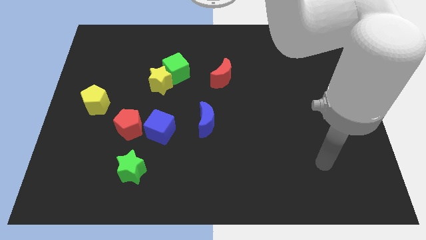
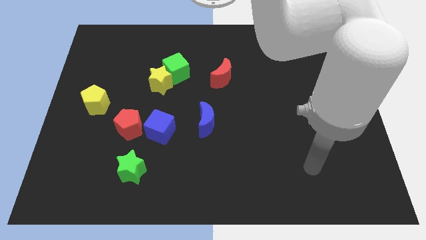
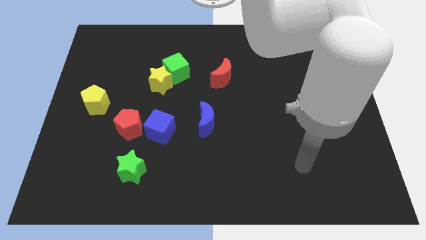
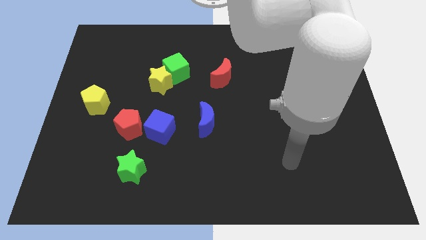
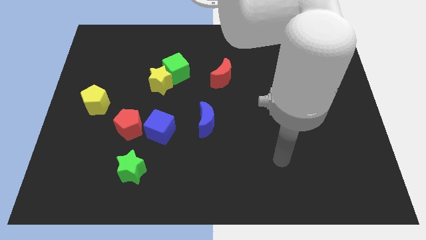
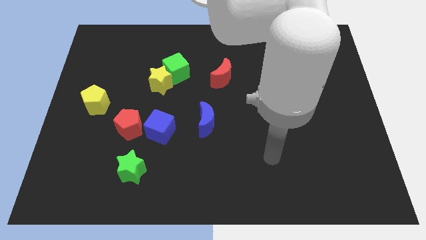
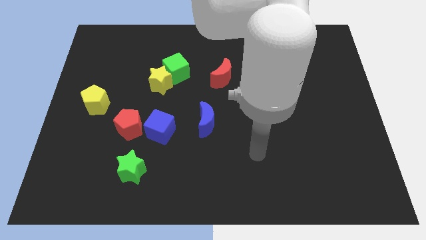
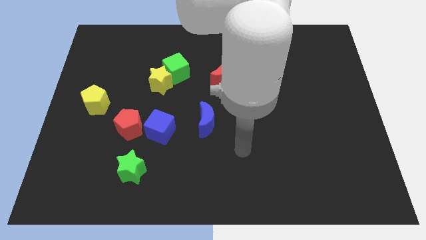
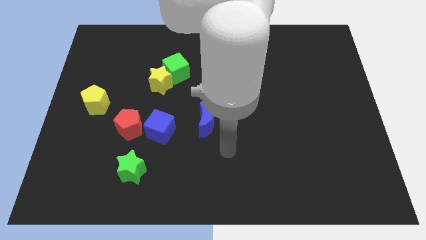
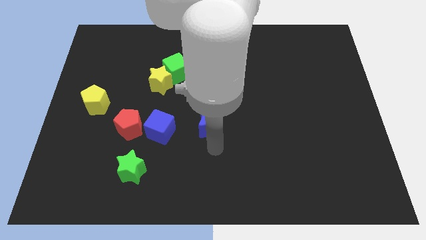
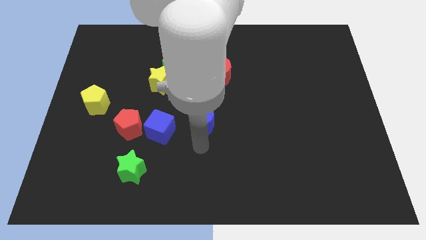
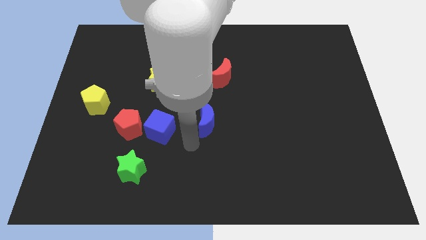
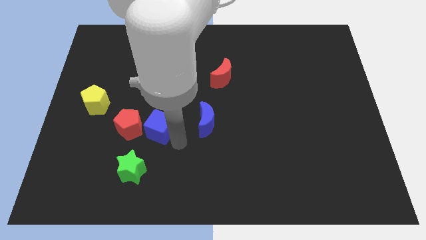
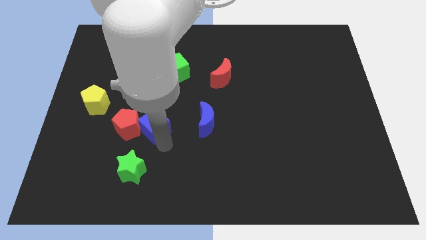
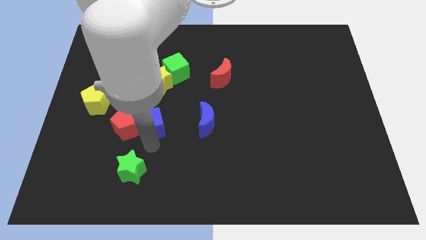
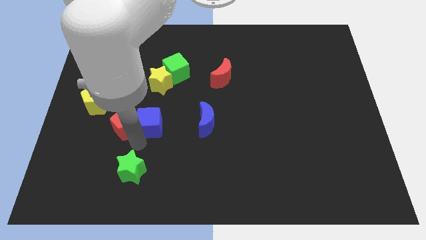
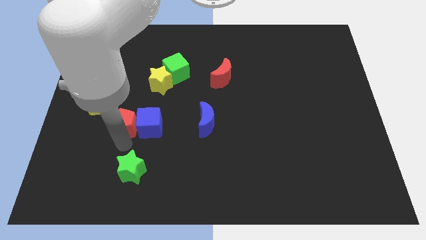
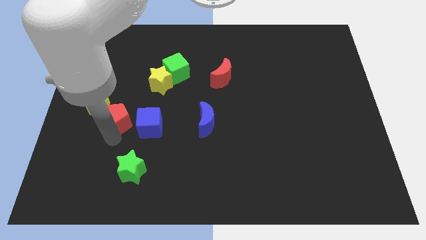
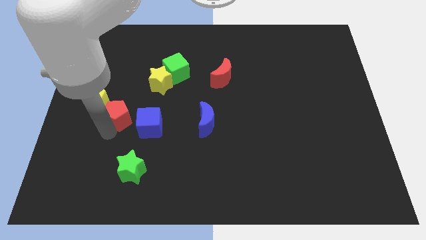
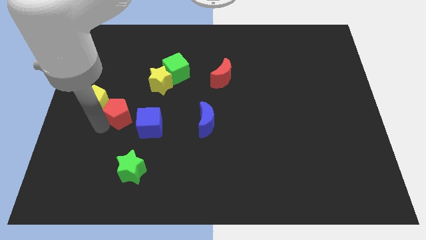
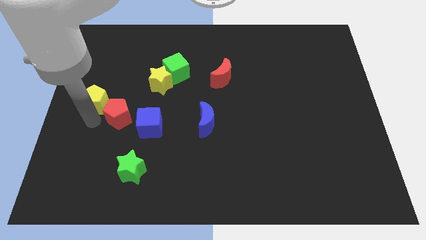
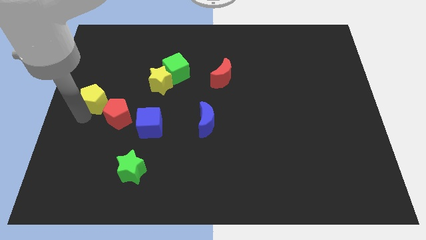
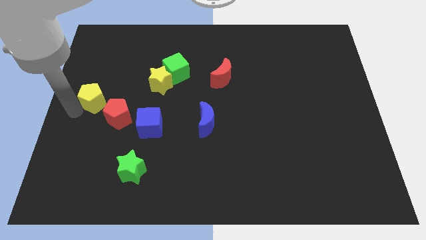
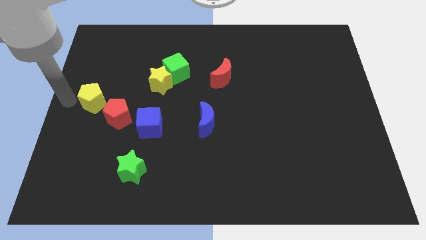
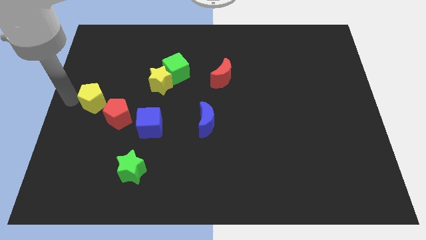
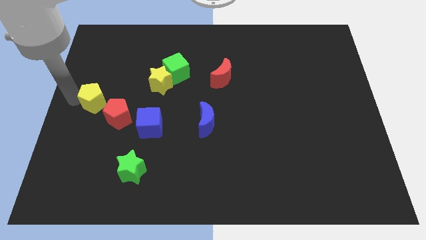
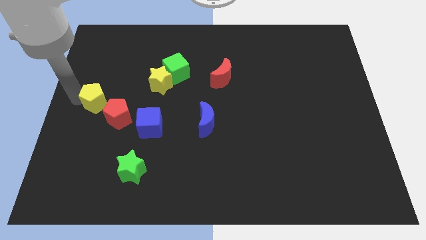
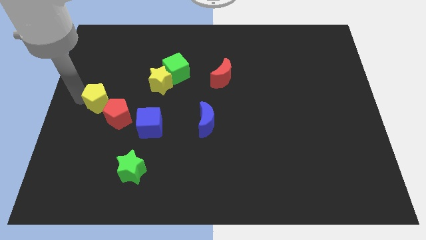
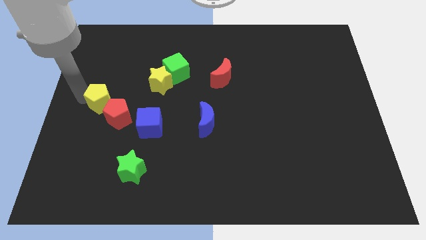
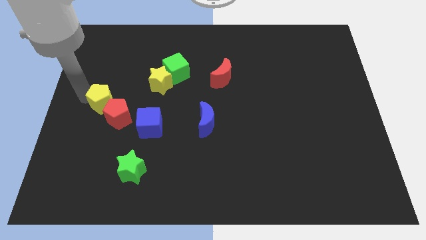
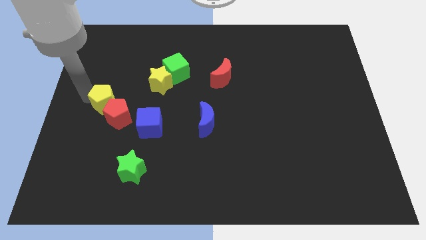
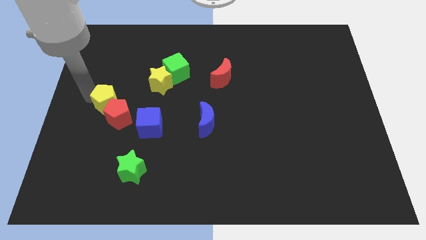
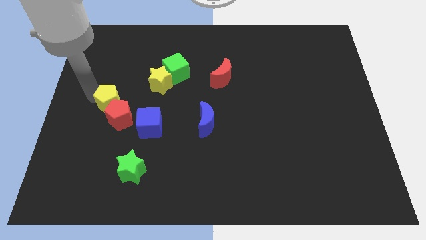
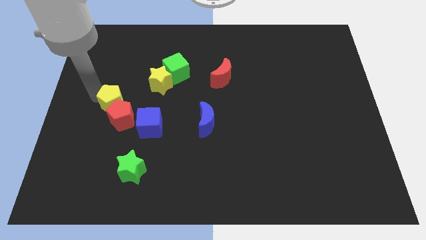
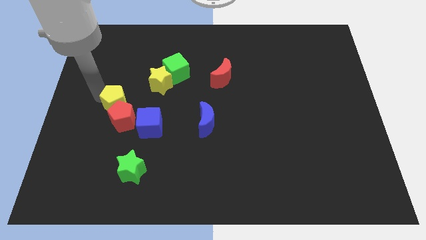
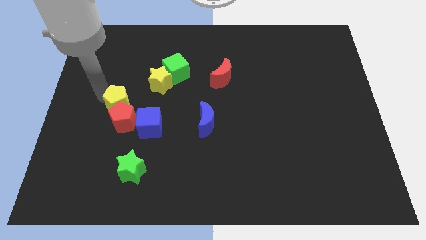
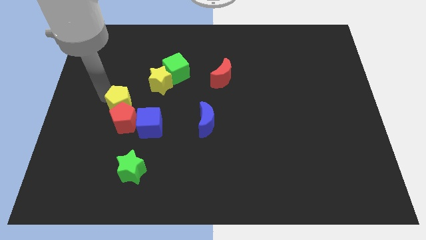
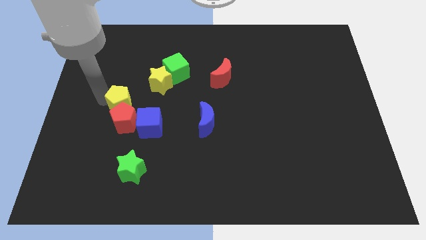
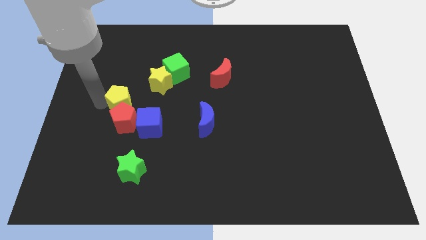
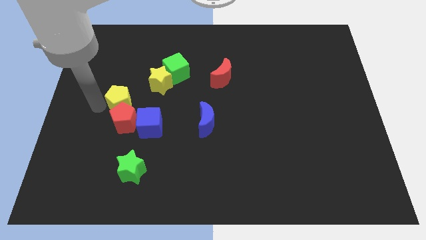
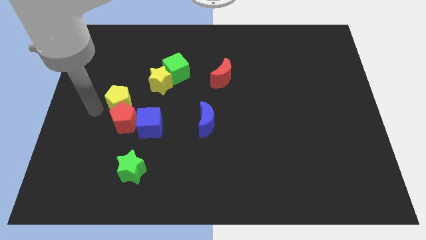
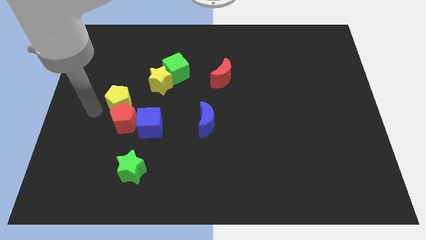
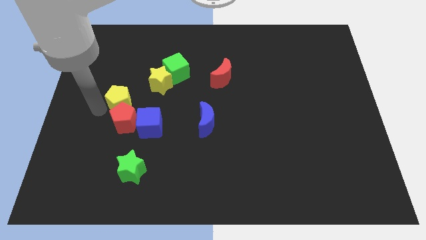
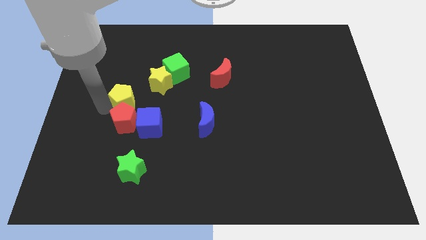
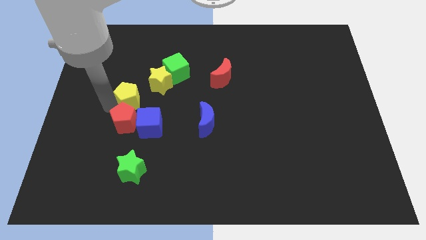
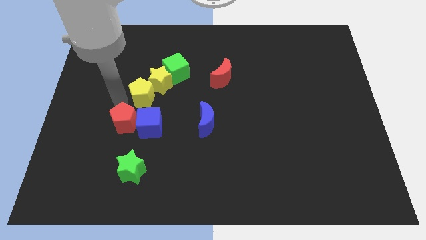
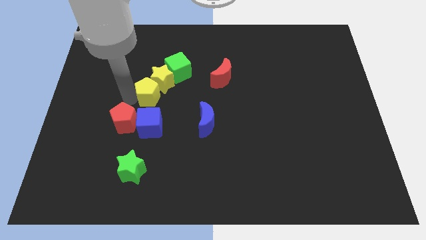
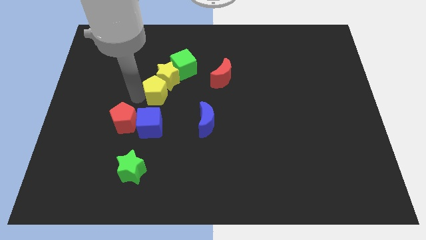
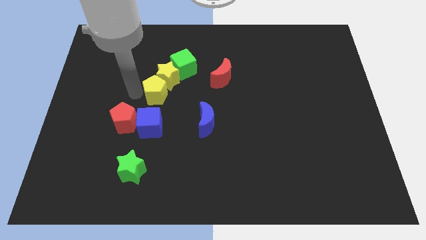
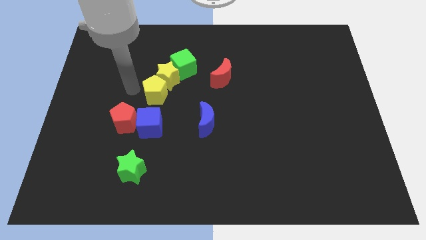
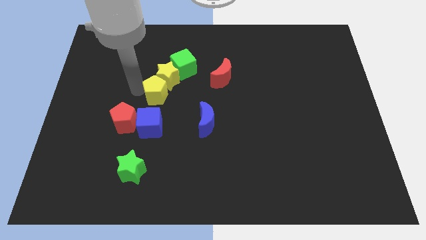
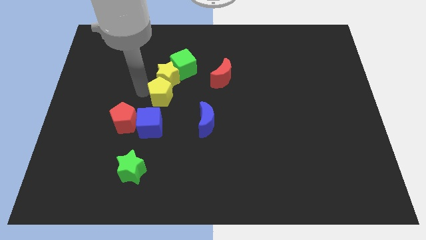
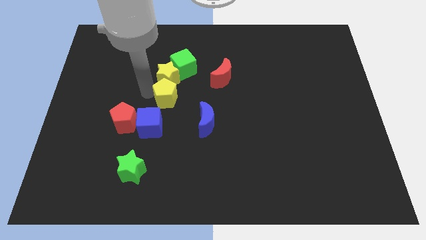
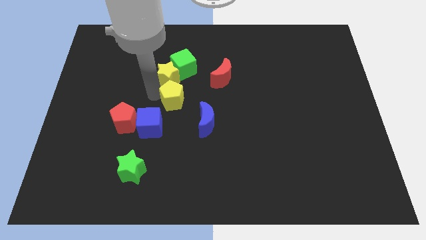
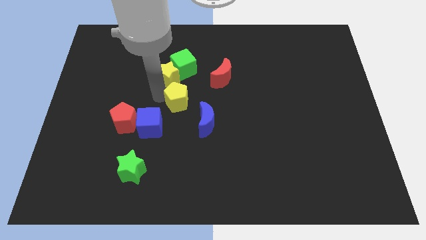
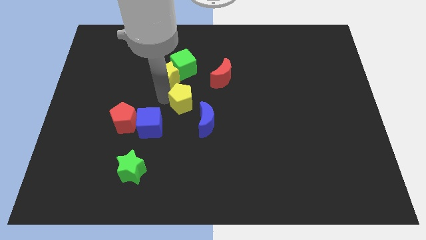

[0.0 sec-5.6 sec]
slide the yellow pentagon right

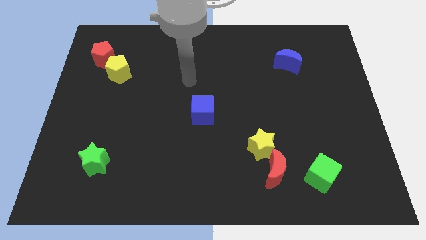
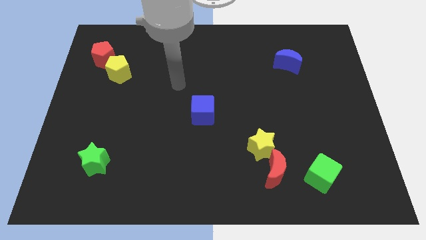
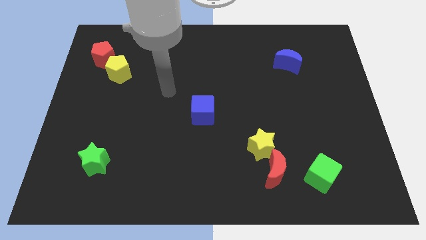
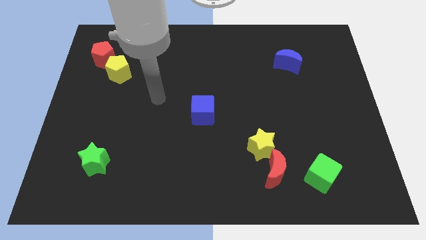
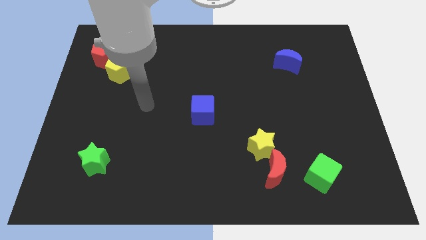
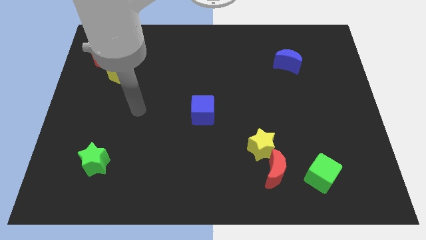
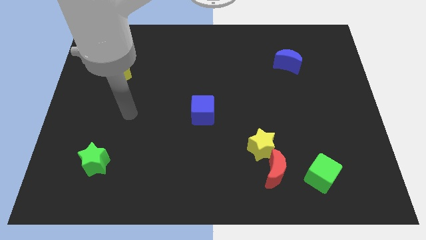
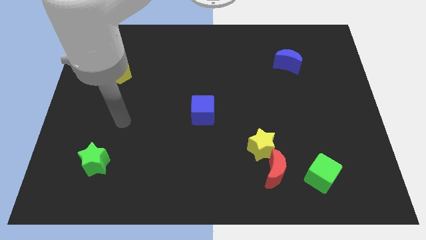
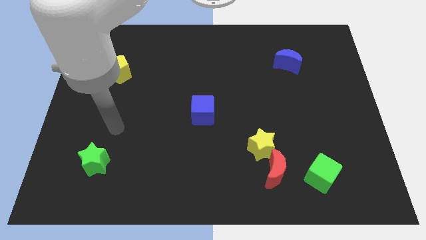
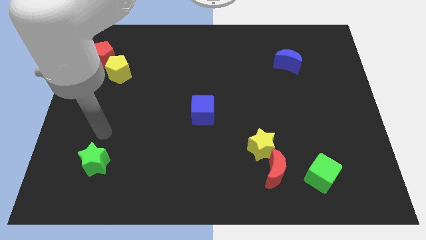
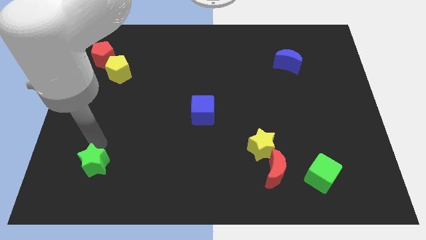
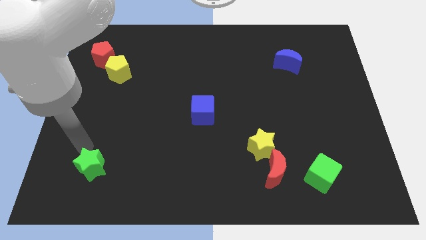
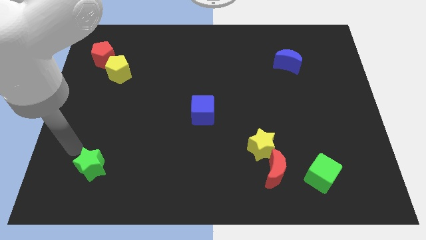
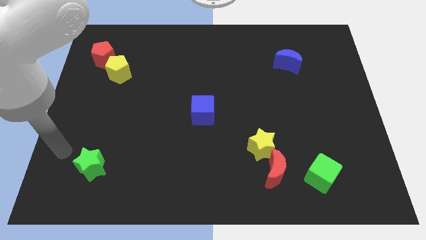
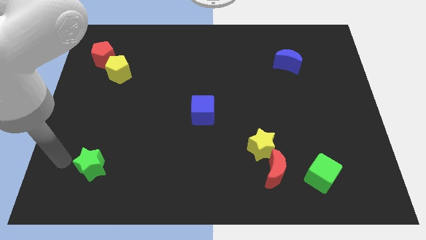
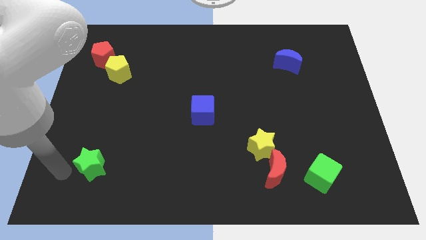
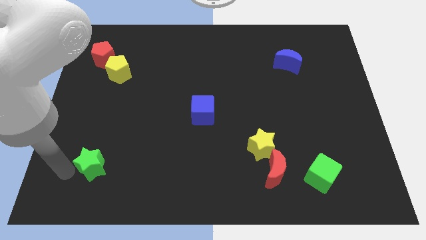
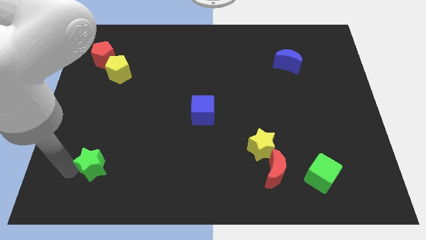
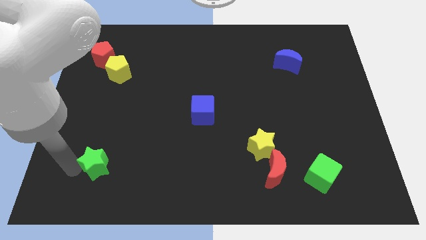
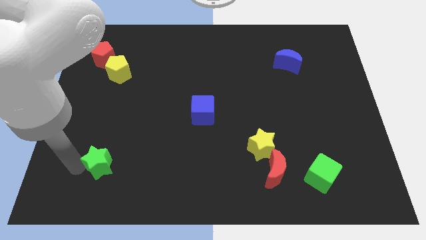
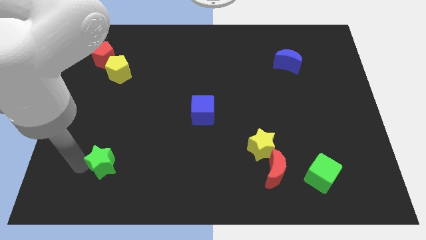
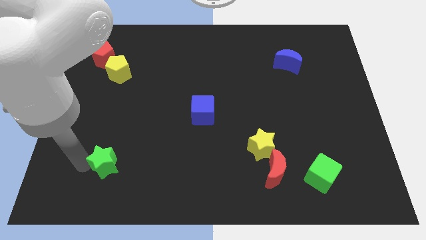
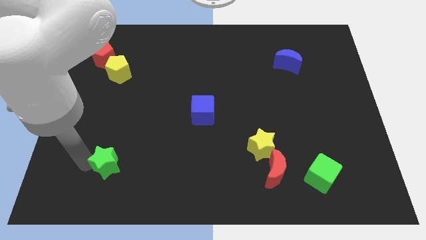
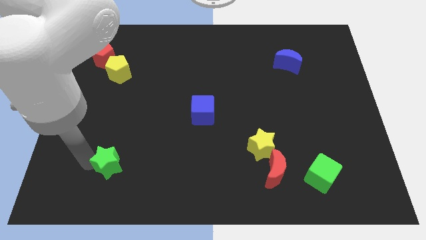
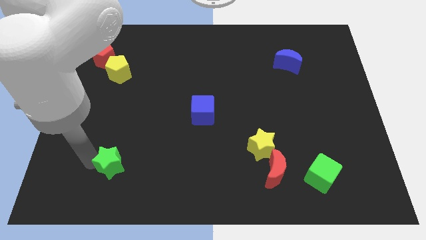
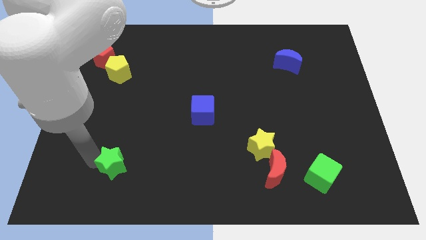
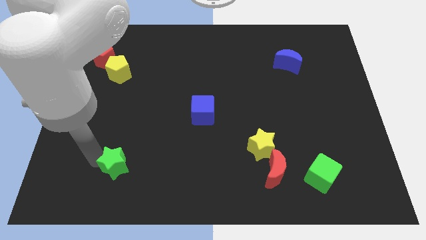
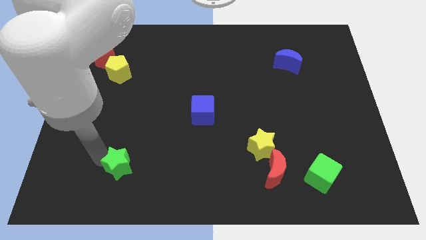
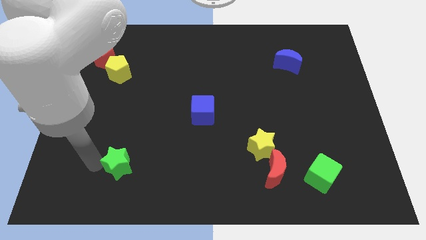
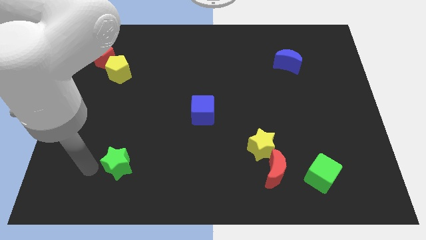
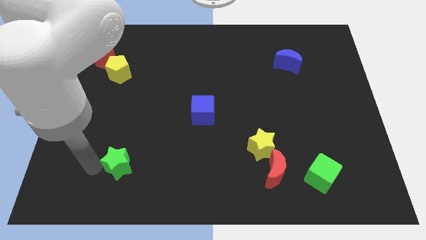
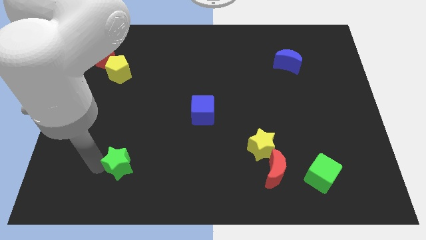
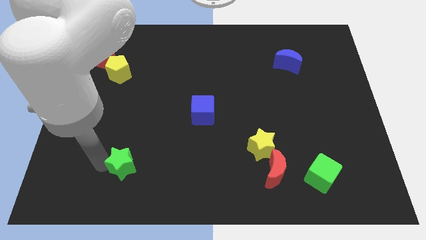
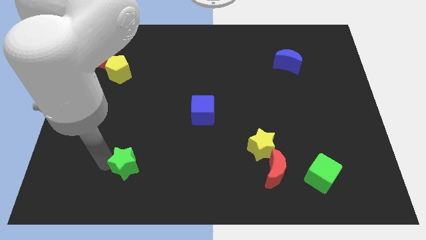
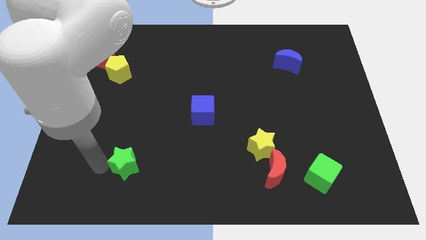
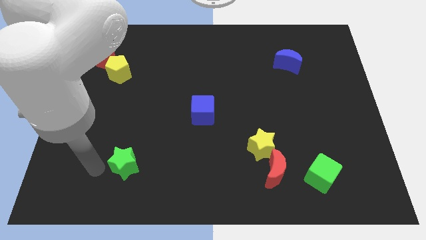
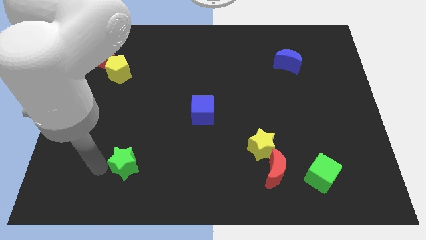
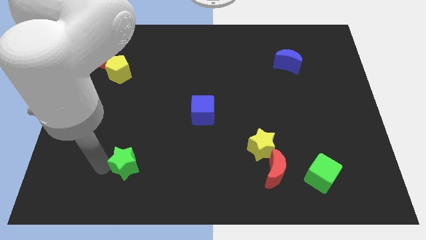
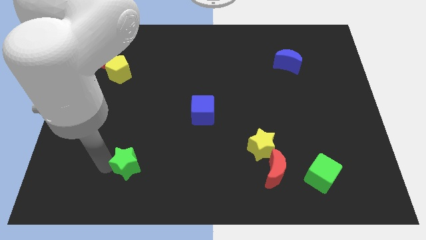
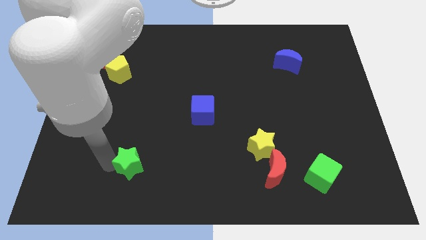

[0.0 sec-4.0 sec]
slide the green star to the right a bit
